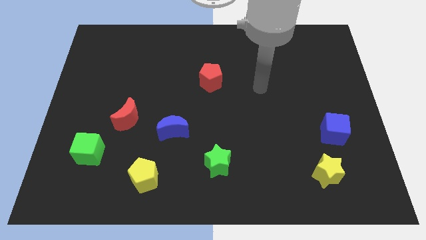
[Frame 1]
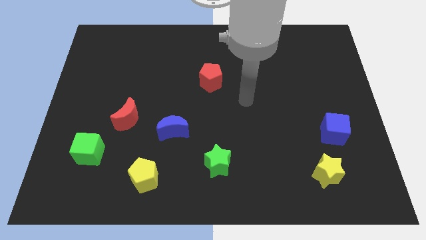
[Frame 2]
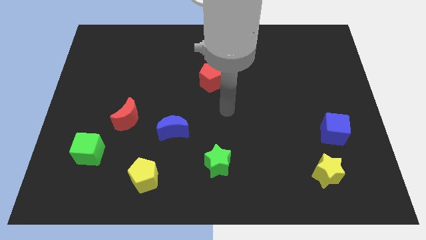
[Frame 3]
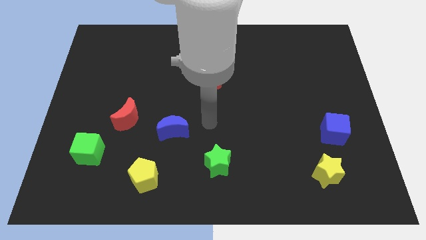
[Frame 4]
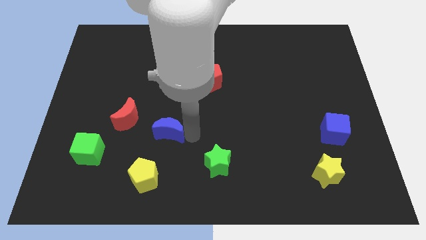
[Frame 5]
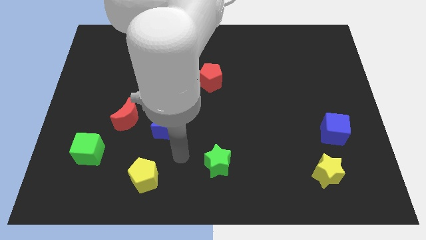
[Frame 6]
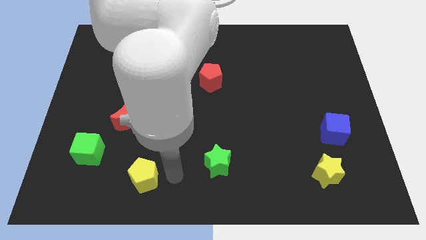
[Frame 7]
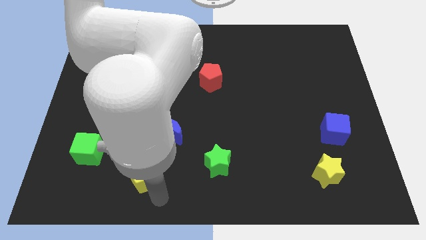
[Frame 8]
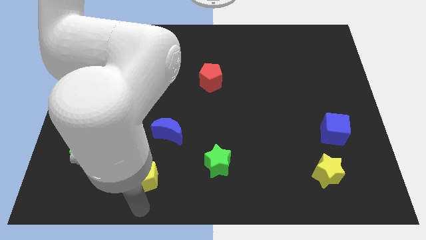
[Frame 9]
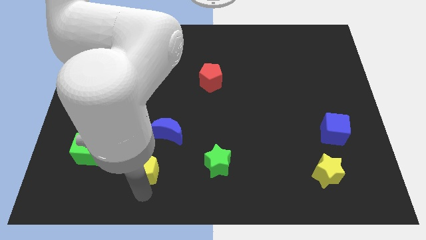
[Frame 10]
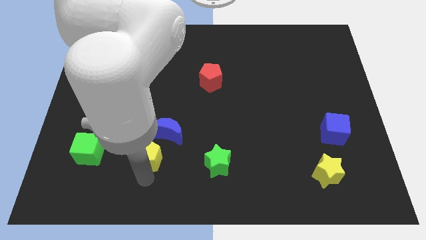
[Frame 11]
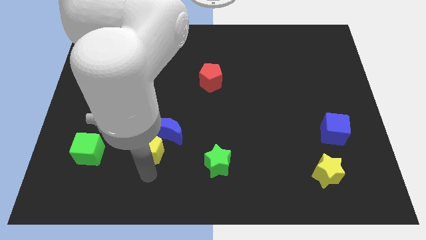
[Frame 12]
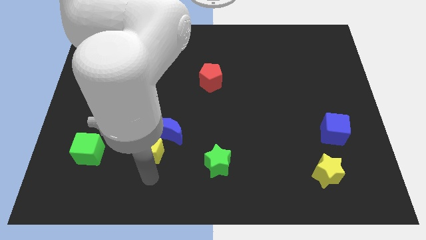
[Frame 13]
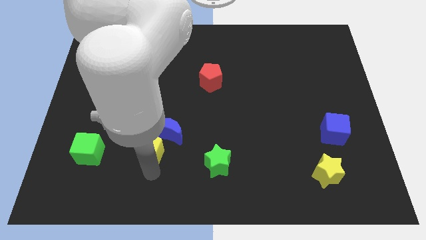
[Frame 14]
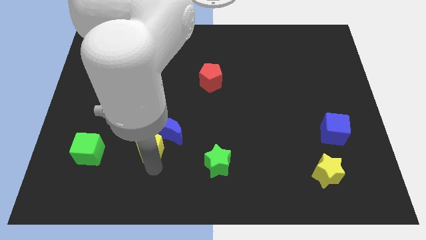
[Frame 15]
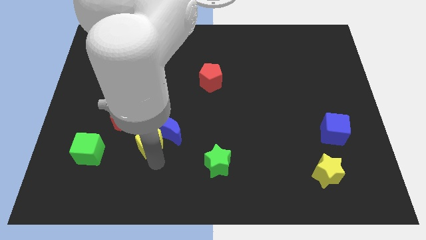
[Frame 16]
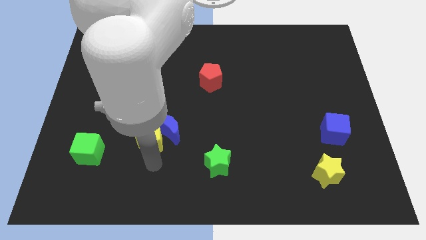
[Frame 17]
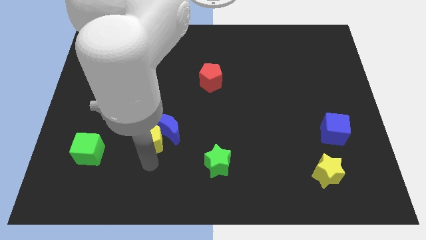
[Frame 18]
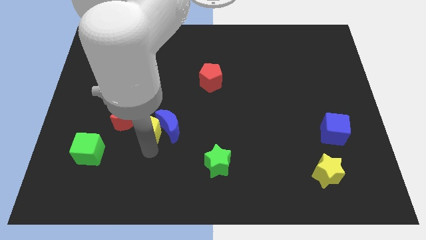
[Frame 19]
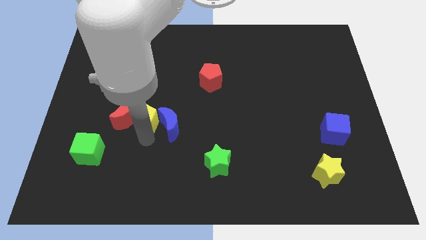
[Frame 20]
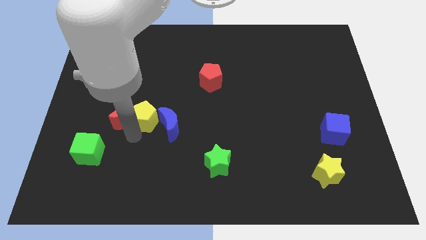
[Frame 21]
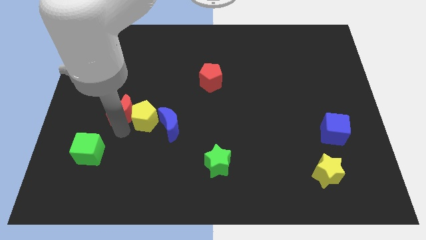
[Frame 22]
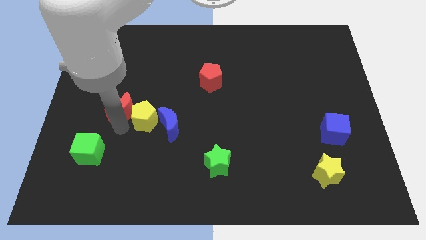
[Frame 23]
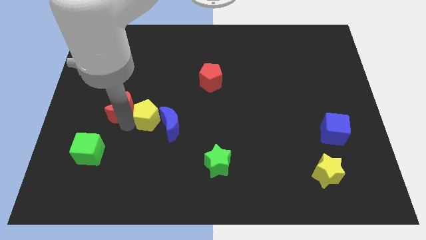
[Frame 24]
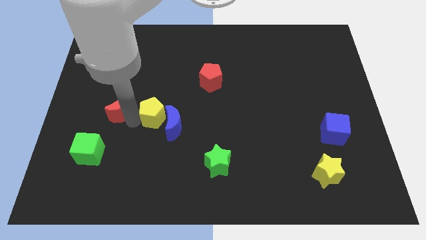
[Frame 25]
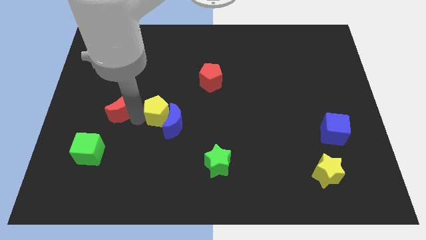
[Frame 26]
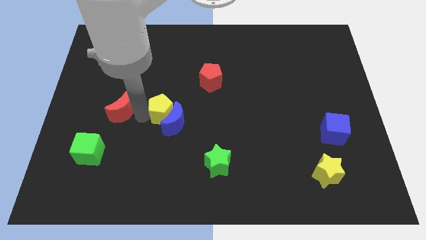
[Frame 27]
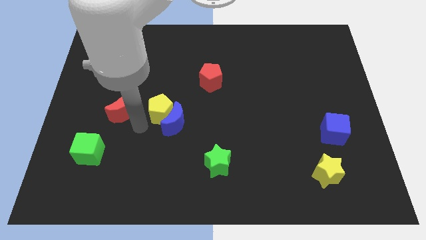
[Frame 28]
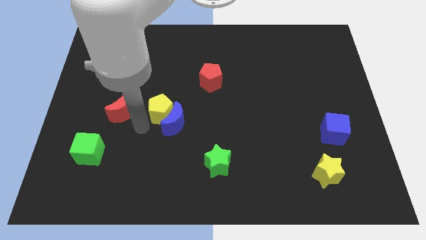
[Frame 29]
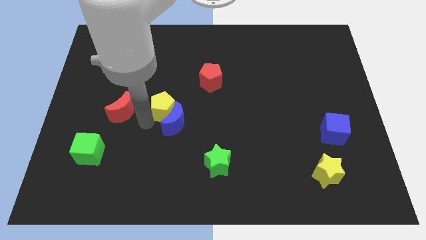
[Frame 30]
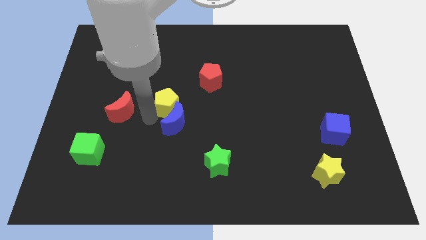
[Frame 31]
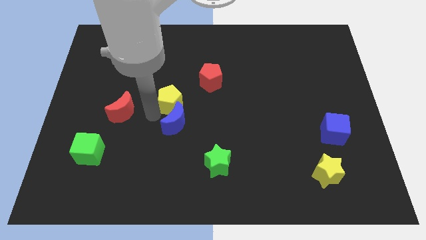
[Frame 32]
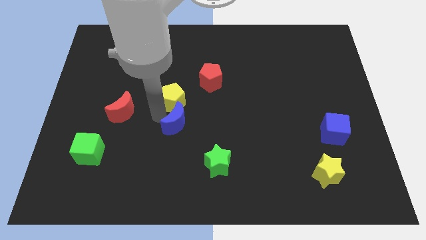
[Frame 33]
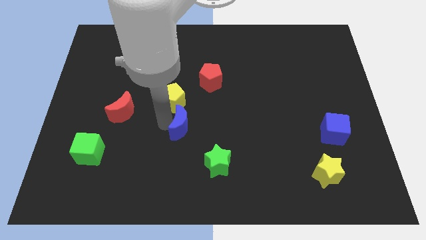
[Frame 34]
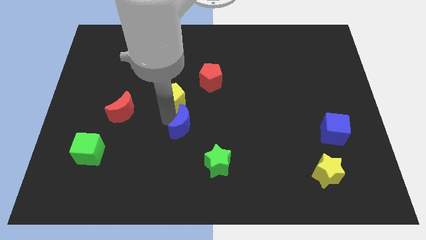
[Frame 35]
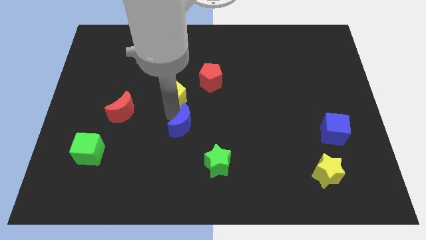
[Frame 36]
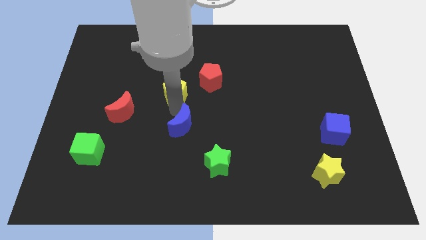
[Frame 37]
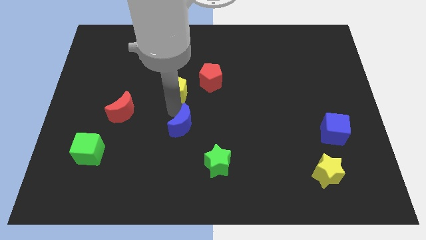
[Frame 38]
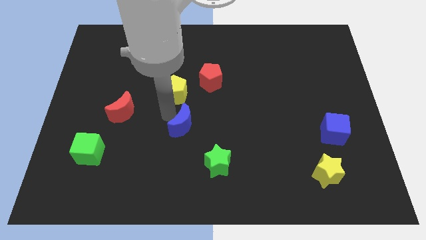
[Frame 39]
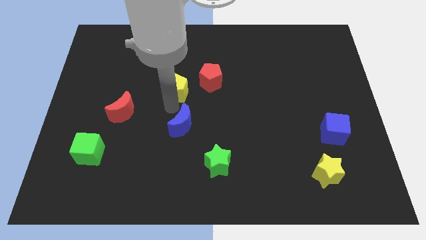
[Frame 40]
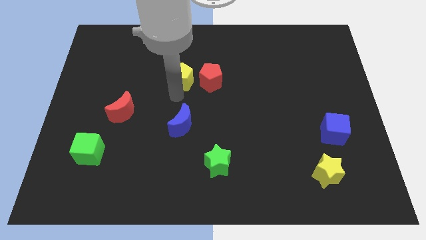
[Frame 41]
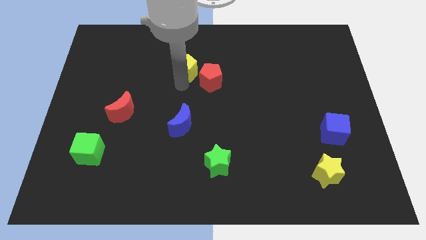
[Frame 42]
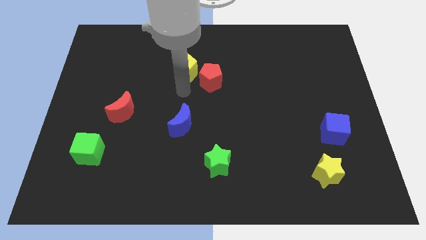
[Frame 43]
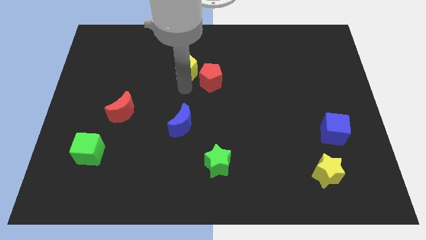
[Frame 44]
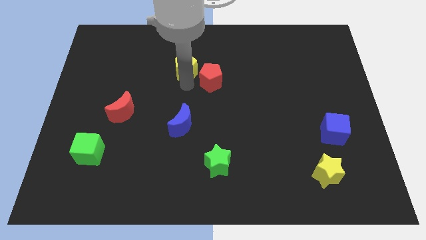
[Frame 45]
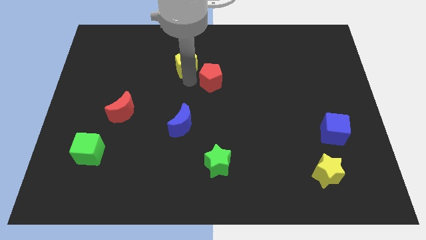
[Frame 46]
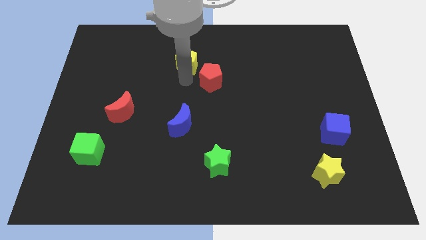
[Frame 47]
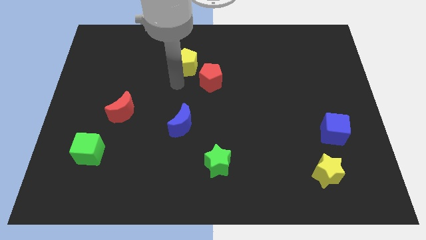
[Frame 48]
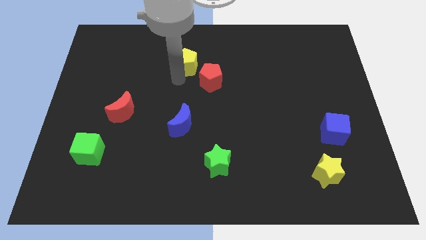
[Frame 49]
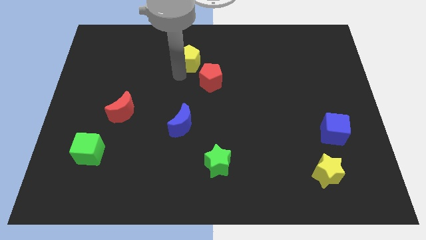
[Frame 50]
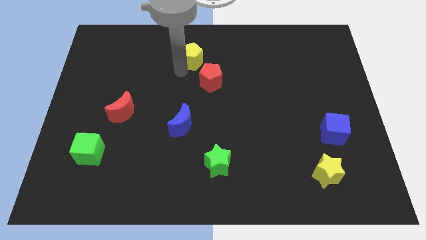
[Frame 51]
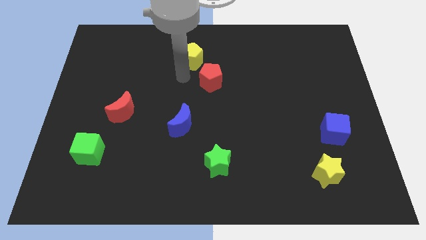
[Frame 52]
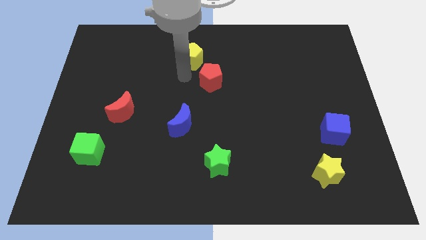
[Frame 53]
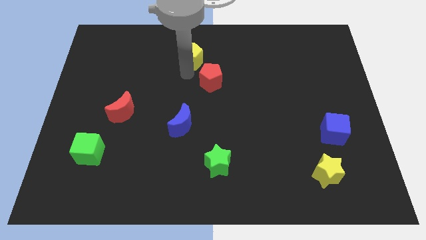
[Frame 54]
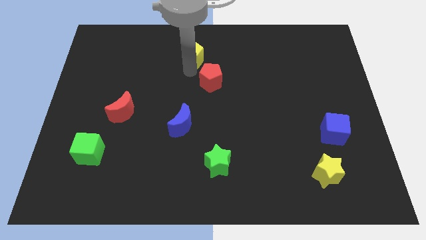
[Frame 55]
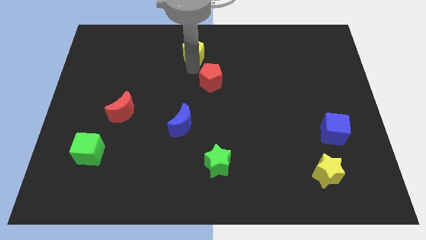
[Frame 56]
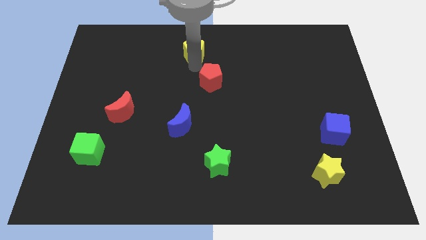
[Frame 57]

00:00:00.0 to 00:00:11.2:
push the yellow pentagon to the top side

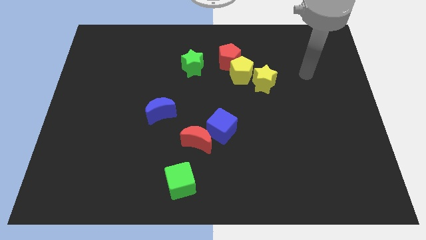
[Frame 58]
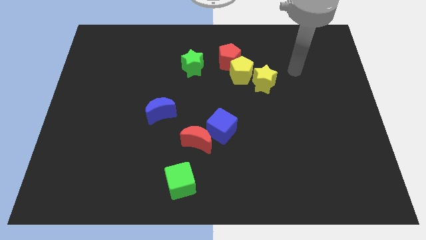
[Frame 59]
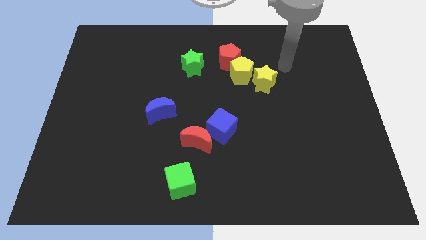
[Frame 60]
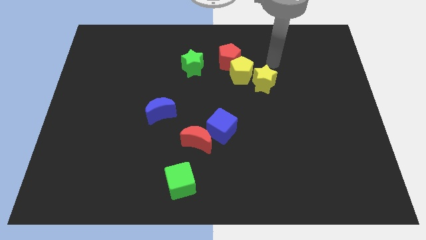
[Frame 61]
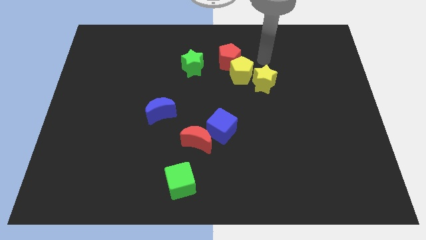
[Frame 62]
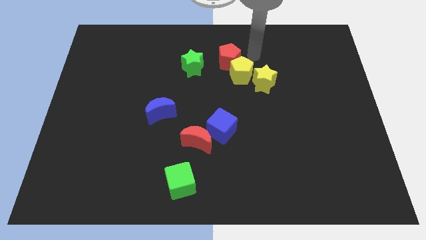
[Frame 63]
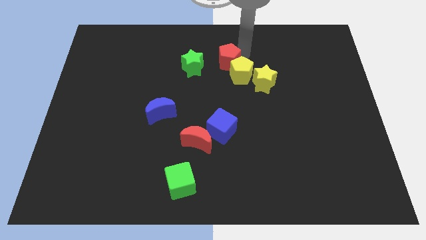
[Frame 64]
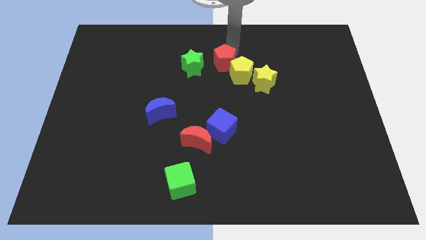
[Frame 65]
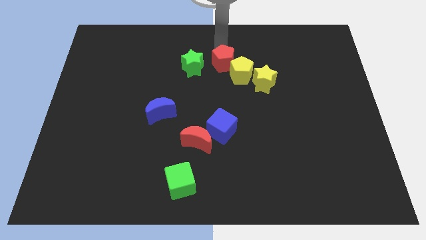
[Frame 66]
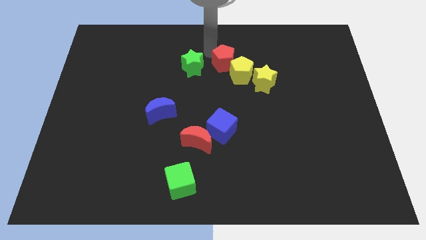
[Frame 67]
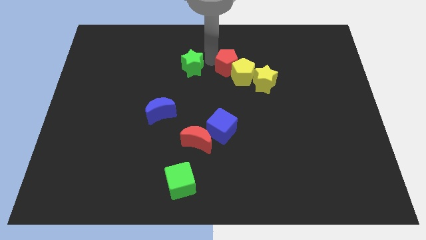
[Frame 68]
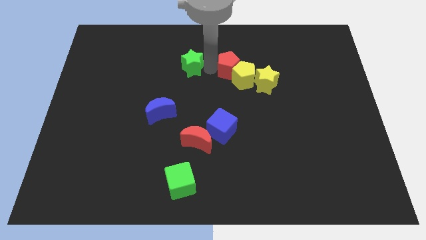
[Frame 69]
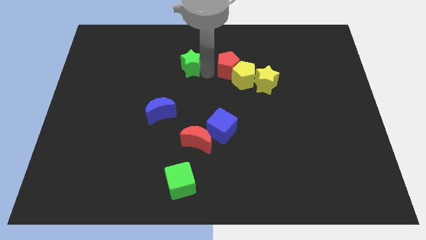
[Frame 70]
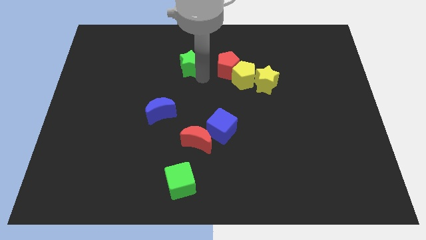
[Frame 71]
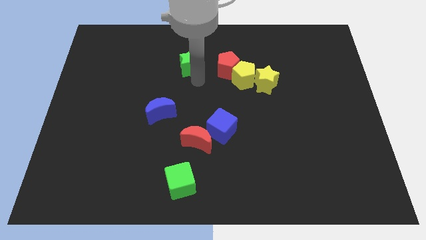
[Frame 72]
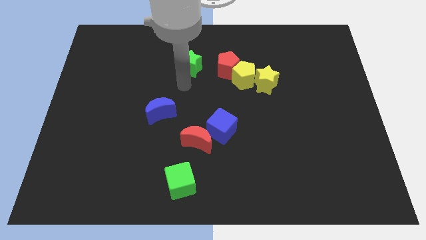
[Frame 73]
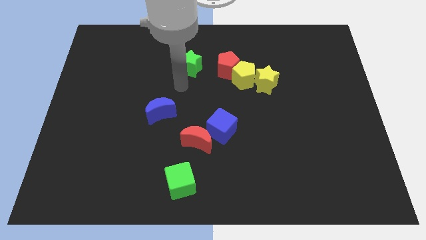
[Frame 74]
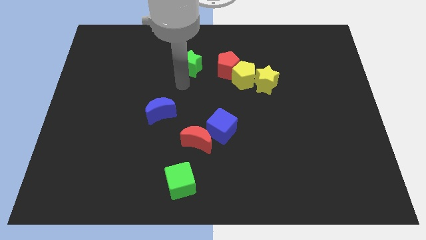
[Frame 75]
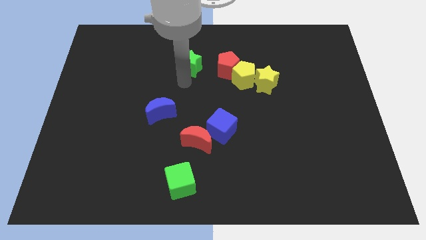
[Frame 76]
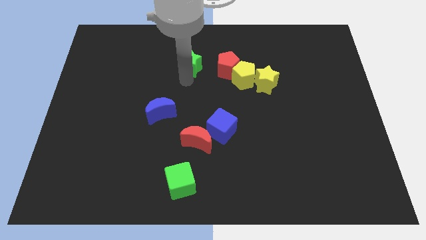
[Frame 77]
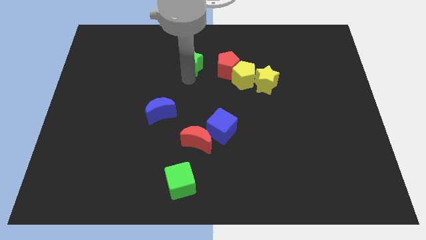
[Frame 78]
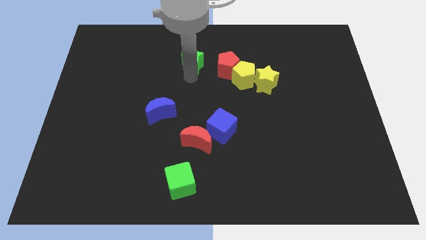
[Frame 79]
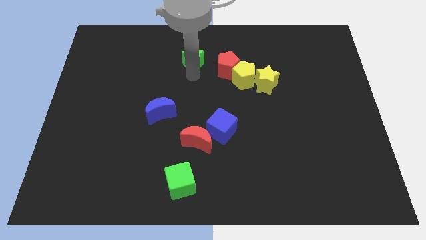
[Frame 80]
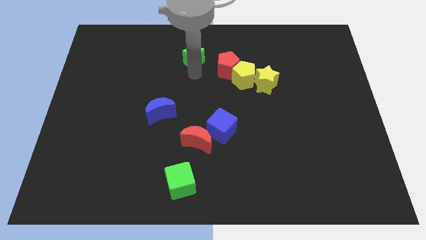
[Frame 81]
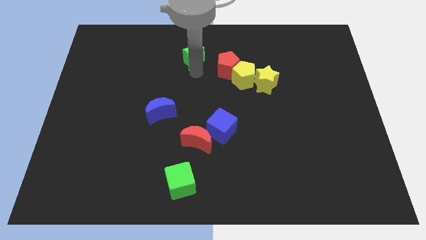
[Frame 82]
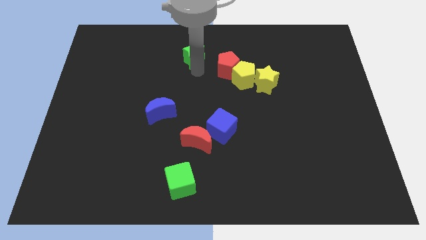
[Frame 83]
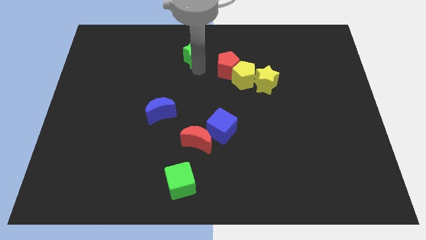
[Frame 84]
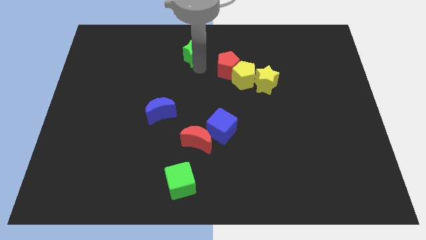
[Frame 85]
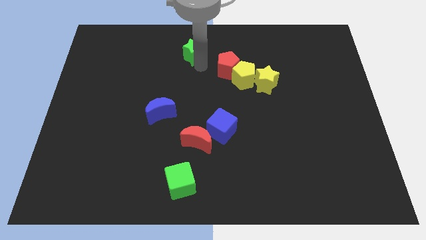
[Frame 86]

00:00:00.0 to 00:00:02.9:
slide the green star to the top
